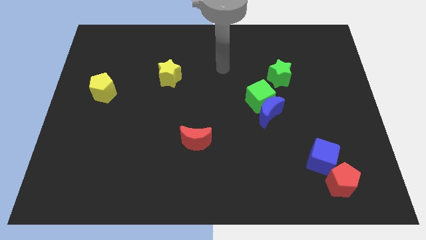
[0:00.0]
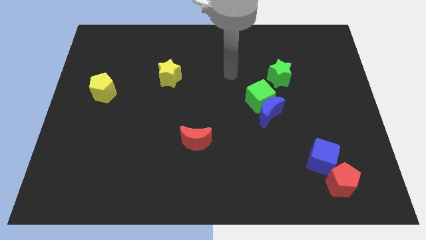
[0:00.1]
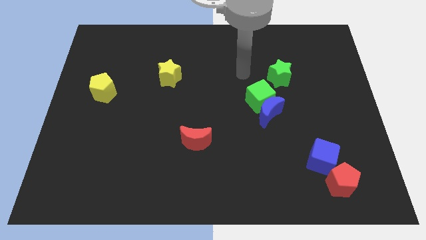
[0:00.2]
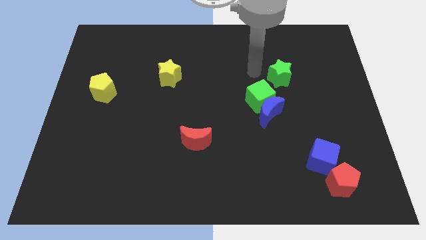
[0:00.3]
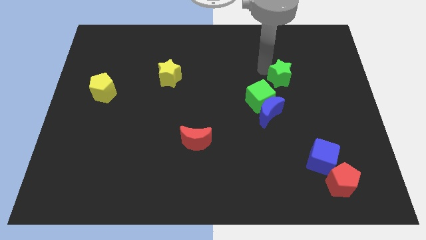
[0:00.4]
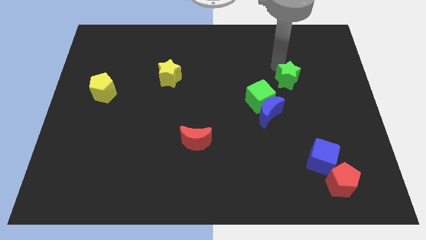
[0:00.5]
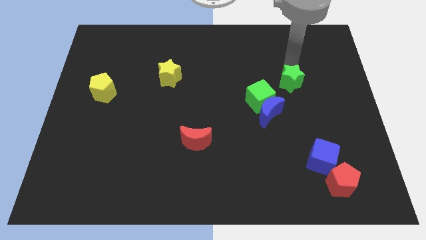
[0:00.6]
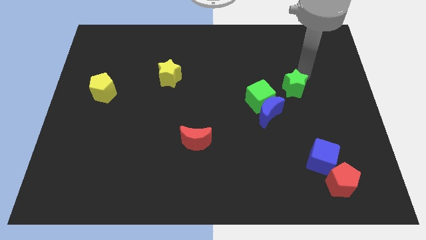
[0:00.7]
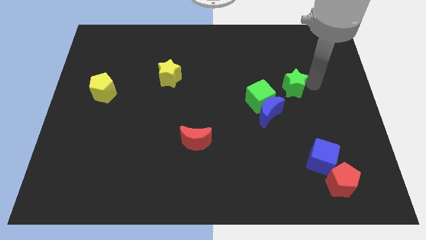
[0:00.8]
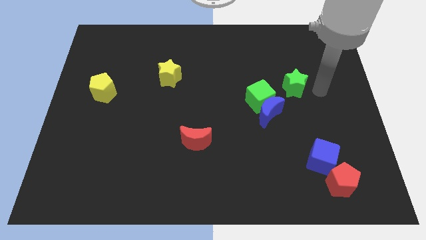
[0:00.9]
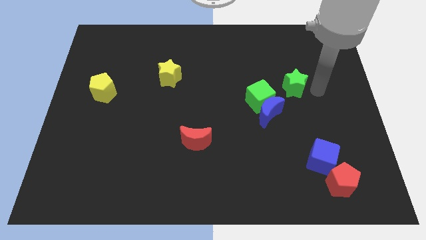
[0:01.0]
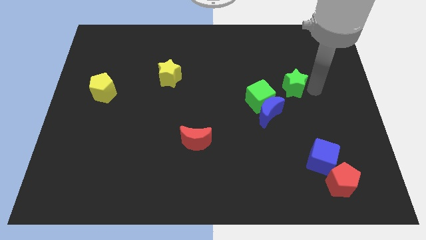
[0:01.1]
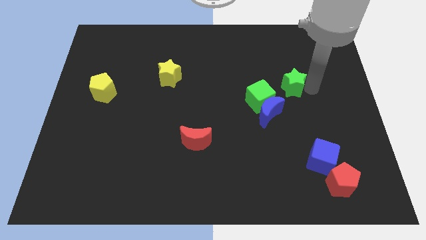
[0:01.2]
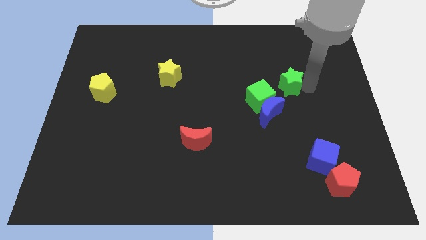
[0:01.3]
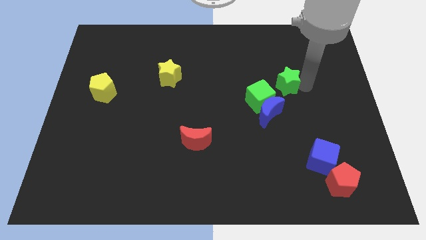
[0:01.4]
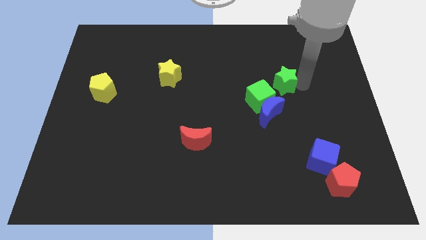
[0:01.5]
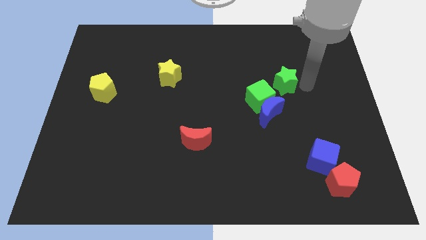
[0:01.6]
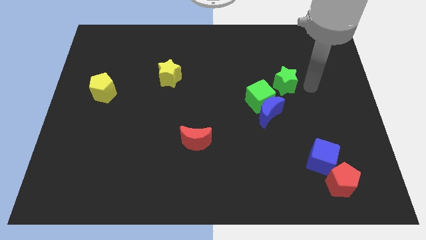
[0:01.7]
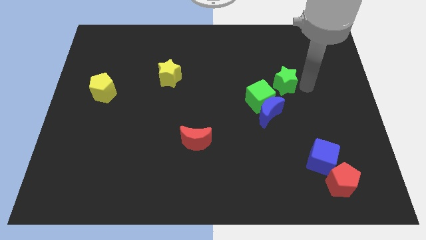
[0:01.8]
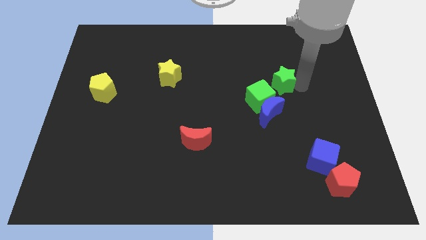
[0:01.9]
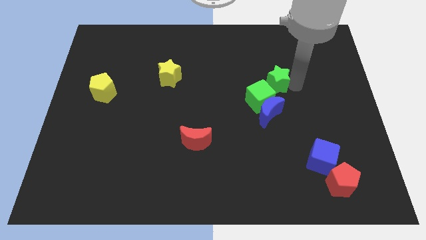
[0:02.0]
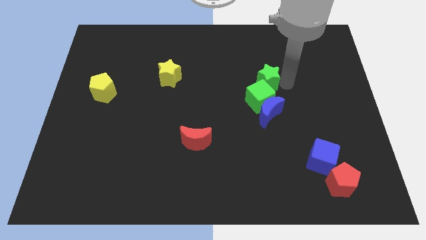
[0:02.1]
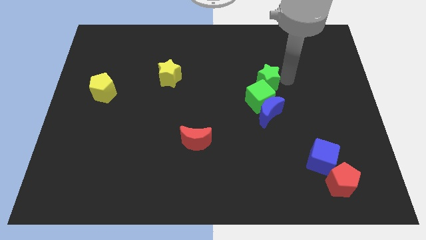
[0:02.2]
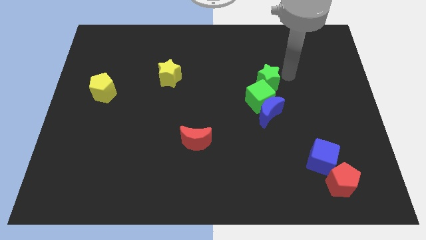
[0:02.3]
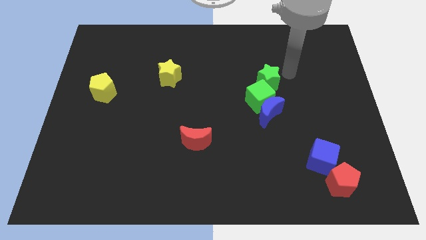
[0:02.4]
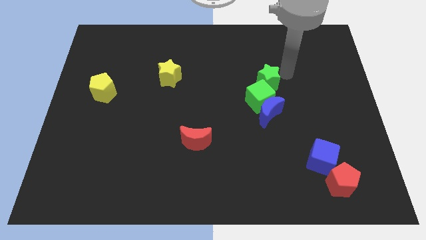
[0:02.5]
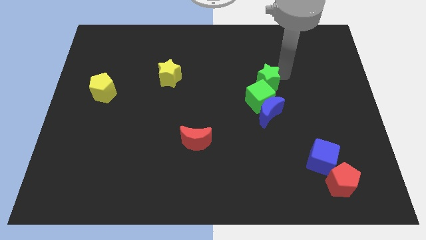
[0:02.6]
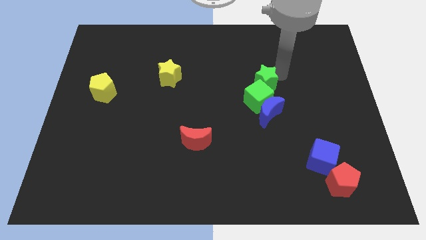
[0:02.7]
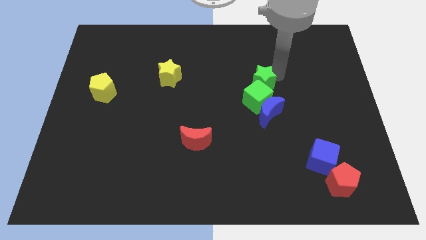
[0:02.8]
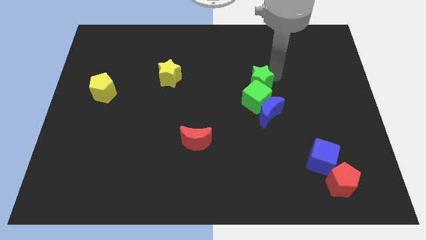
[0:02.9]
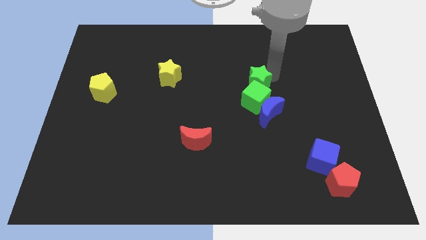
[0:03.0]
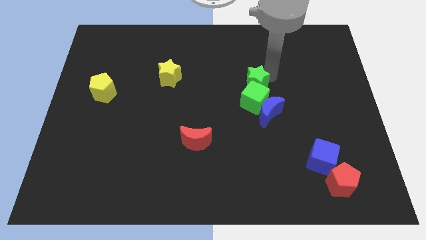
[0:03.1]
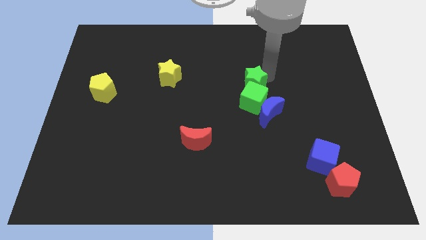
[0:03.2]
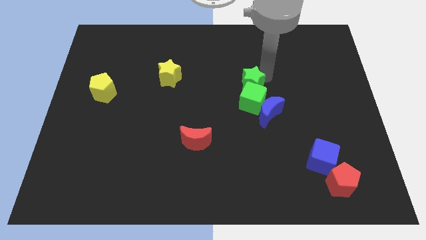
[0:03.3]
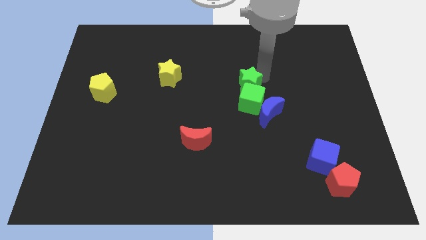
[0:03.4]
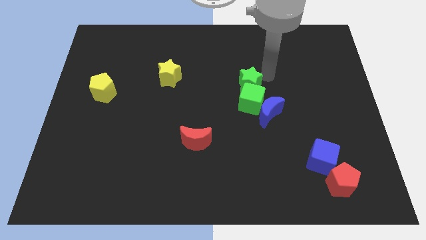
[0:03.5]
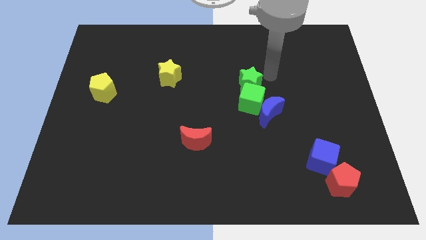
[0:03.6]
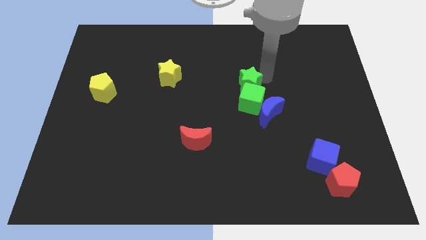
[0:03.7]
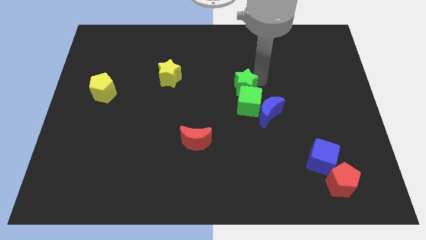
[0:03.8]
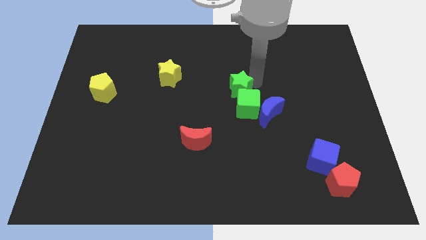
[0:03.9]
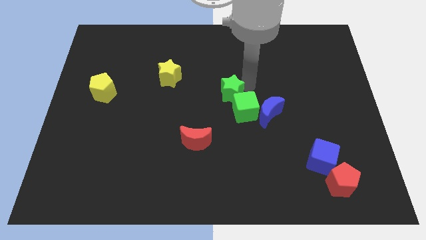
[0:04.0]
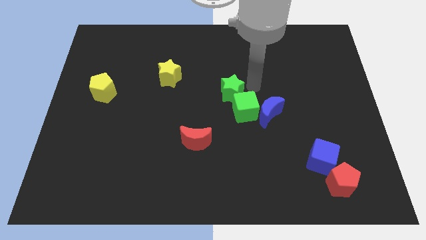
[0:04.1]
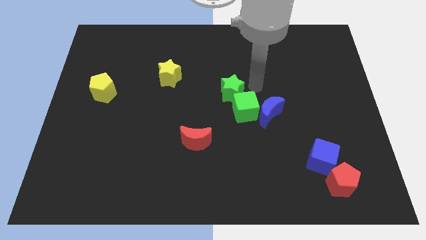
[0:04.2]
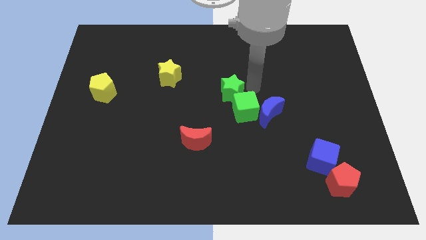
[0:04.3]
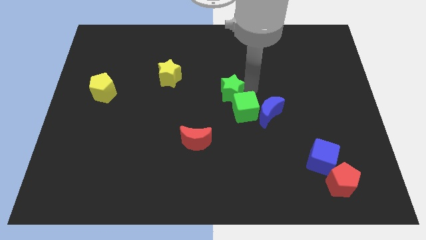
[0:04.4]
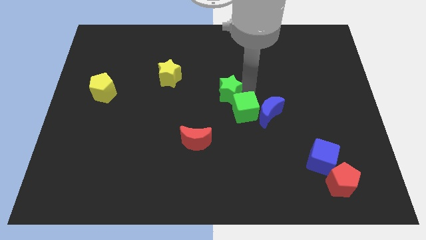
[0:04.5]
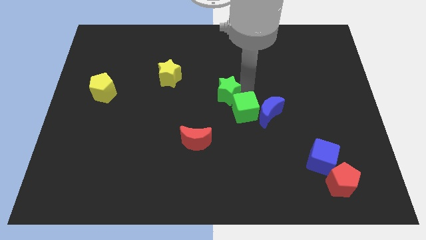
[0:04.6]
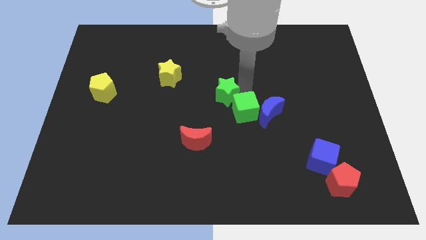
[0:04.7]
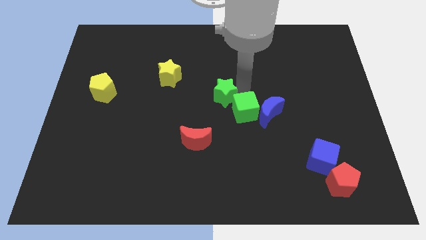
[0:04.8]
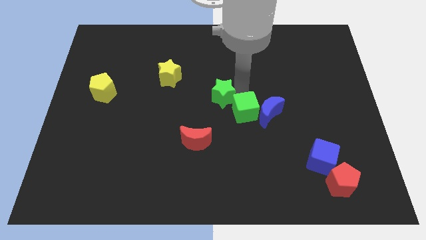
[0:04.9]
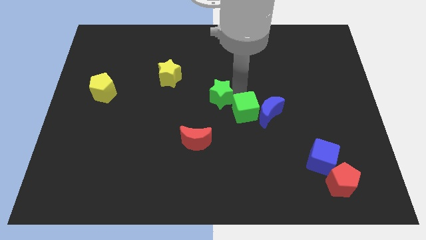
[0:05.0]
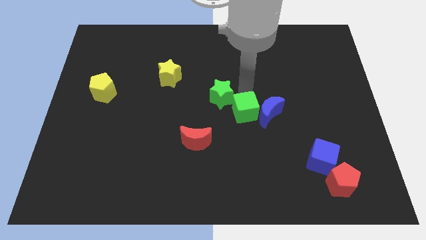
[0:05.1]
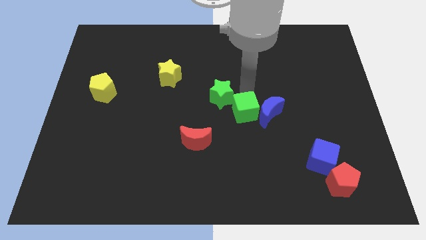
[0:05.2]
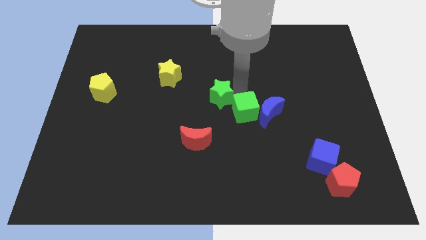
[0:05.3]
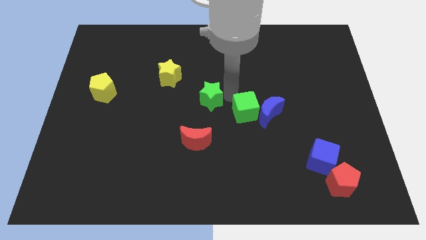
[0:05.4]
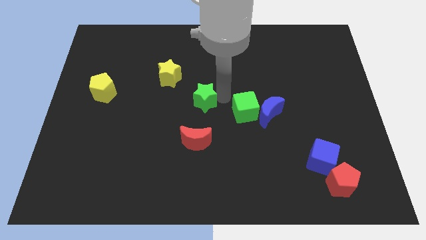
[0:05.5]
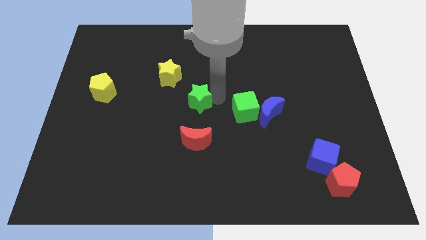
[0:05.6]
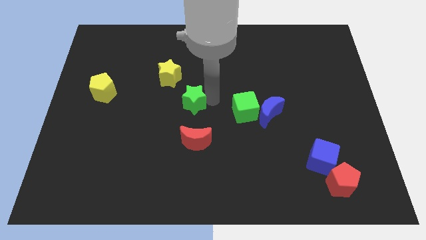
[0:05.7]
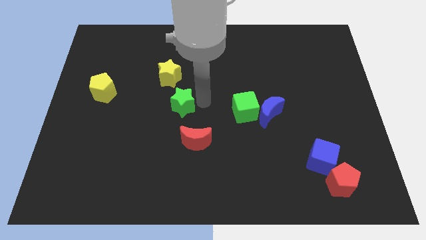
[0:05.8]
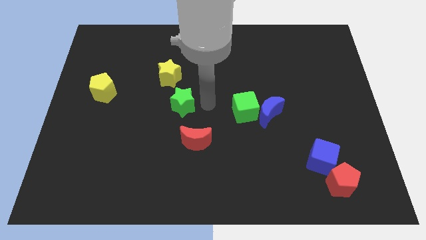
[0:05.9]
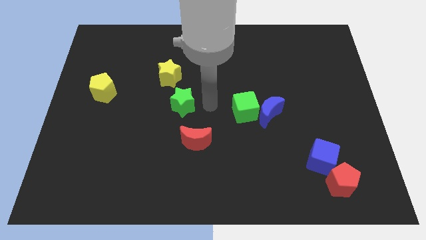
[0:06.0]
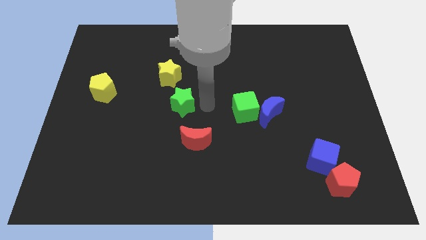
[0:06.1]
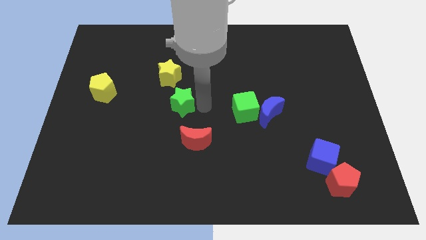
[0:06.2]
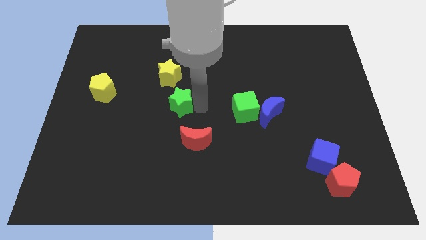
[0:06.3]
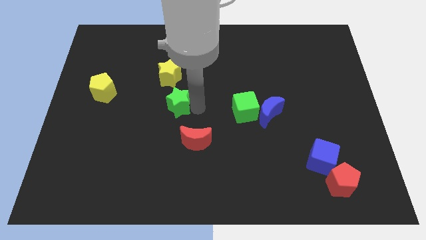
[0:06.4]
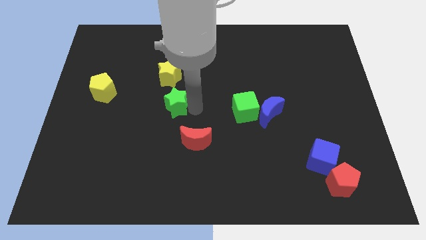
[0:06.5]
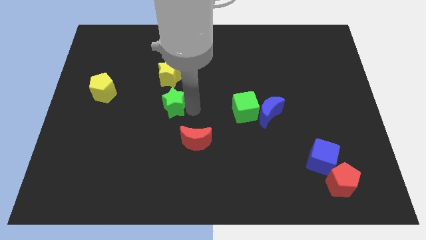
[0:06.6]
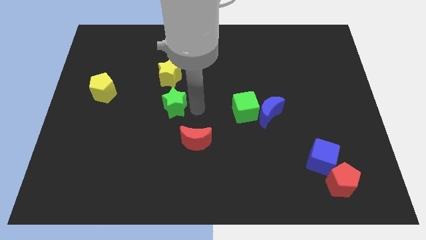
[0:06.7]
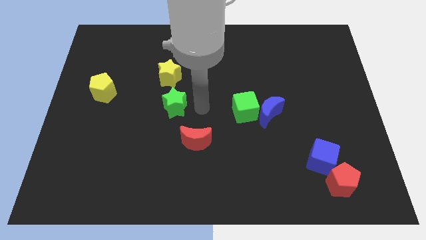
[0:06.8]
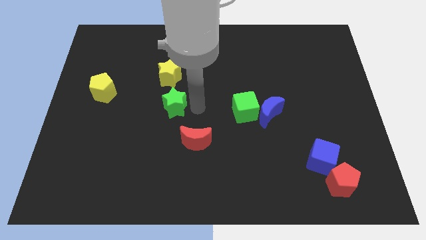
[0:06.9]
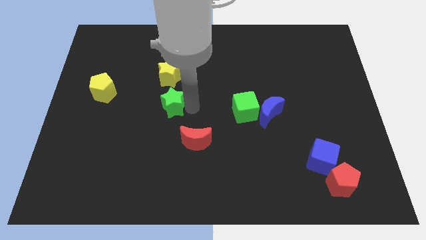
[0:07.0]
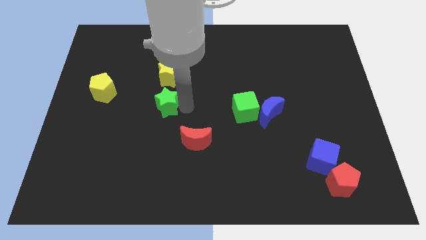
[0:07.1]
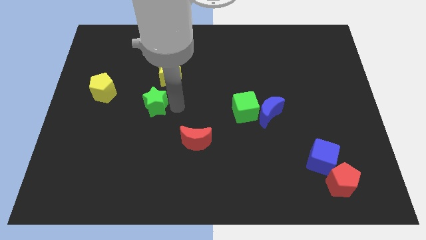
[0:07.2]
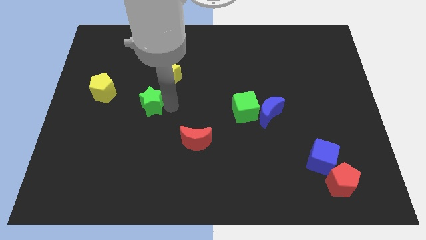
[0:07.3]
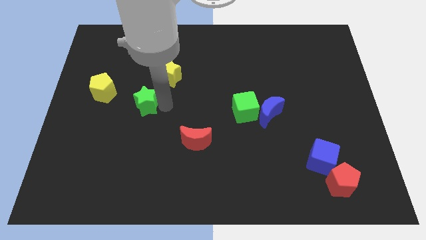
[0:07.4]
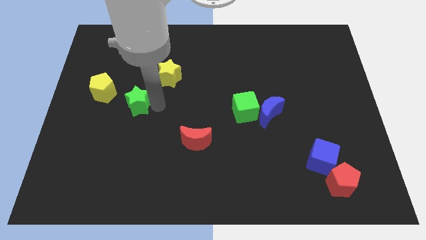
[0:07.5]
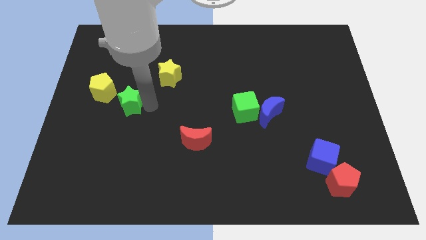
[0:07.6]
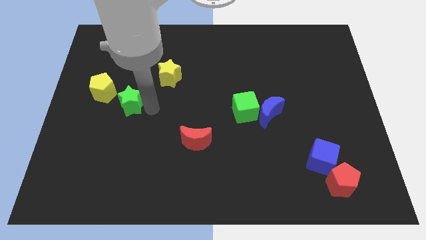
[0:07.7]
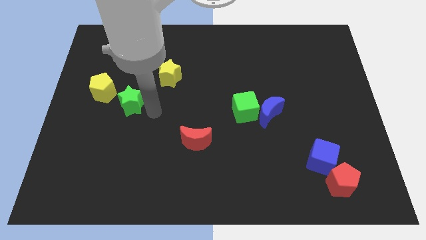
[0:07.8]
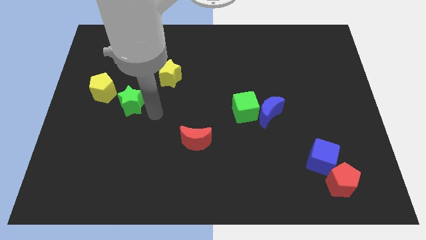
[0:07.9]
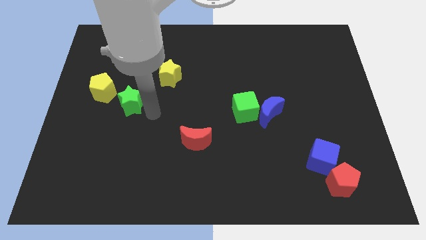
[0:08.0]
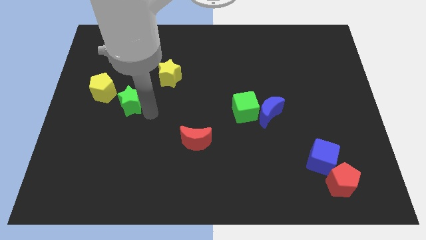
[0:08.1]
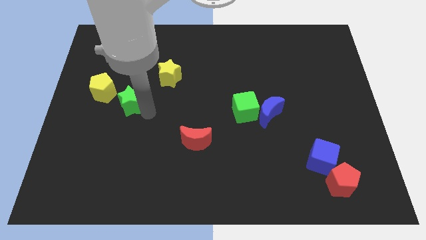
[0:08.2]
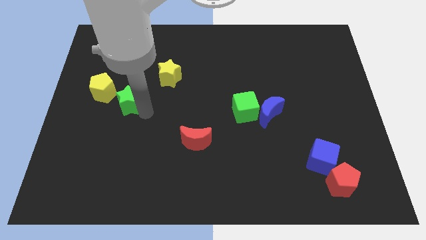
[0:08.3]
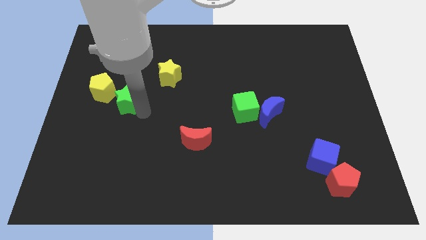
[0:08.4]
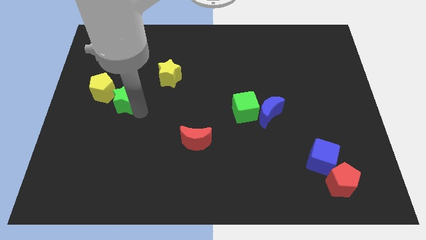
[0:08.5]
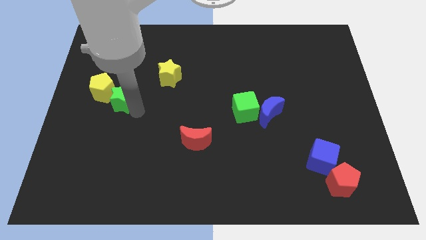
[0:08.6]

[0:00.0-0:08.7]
put the green star close to the yellow pentagon
